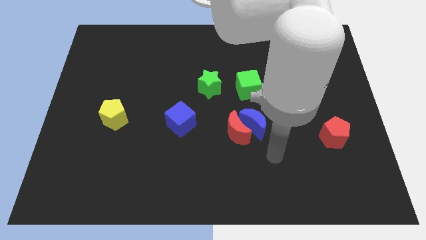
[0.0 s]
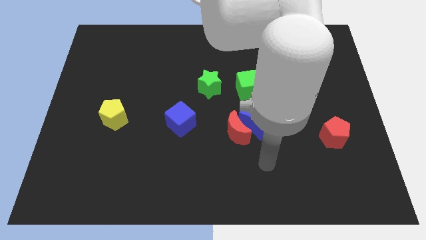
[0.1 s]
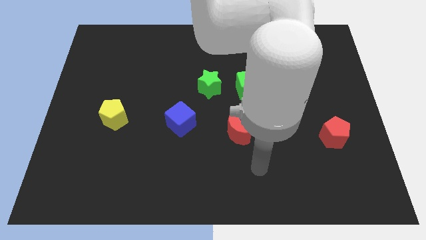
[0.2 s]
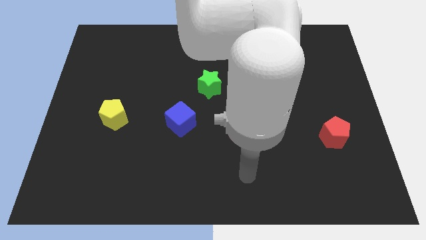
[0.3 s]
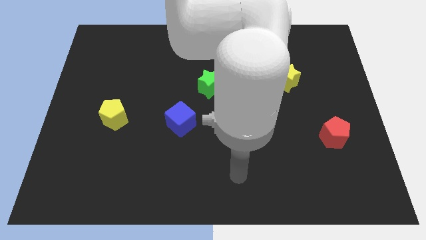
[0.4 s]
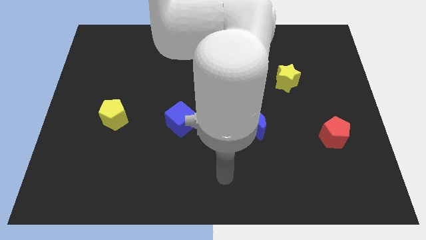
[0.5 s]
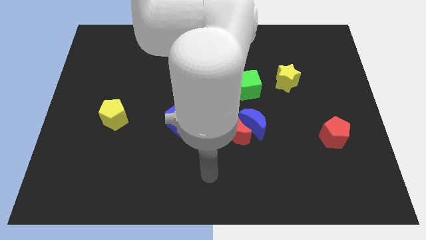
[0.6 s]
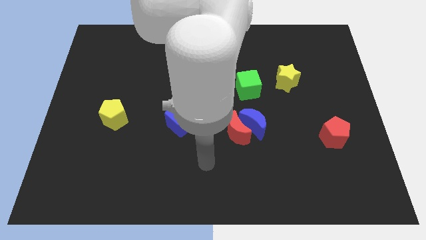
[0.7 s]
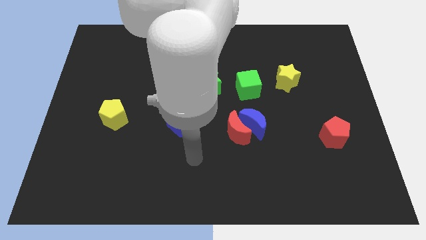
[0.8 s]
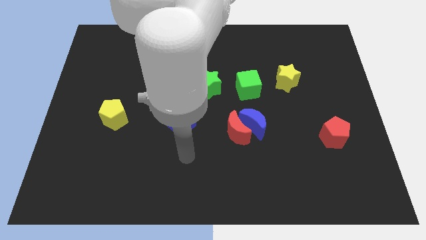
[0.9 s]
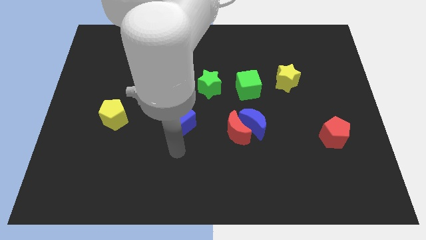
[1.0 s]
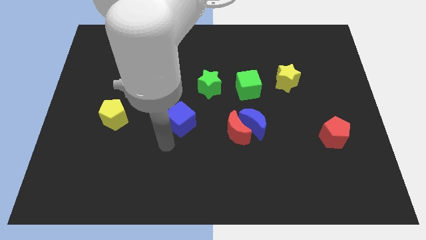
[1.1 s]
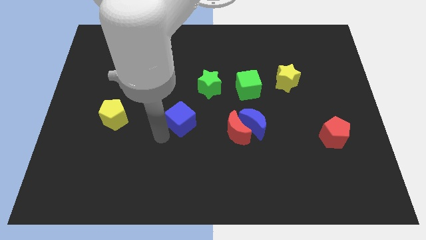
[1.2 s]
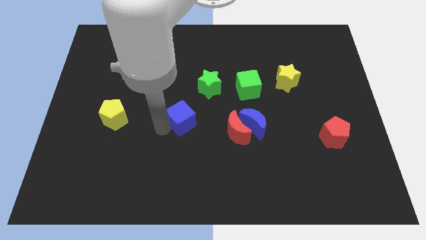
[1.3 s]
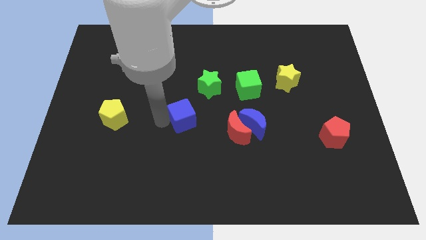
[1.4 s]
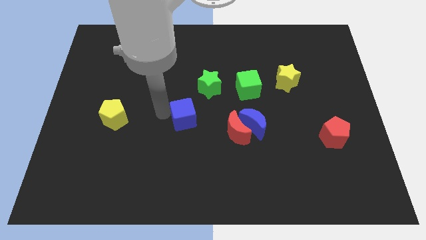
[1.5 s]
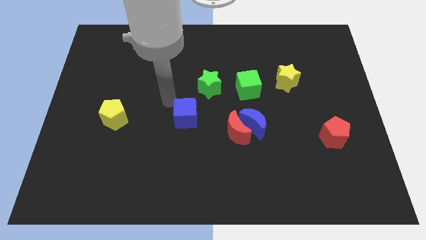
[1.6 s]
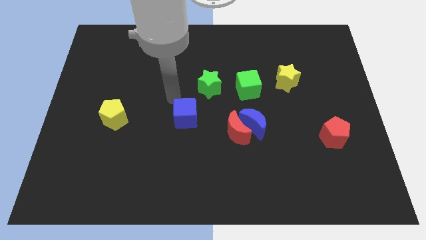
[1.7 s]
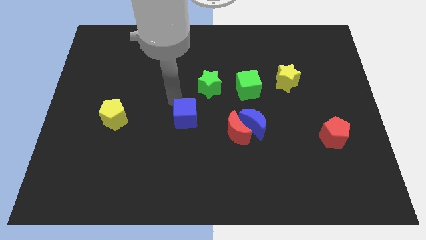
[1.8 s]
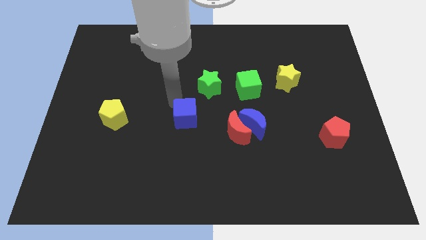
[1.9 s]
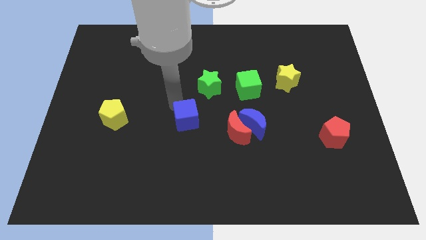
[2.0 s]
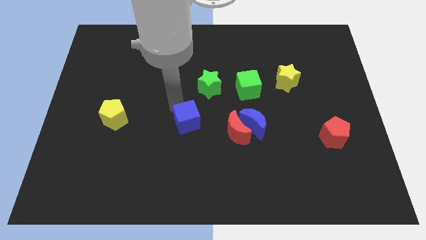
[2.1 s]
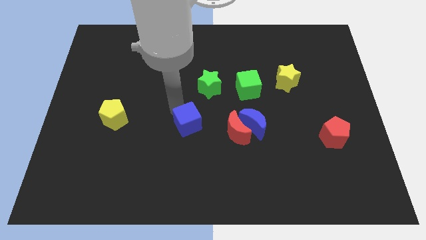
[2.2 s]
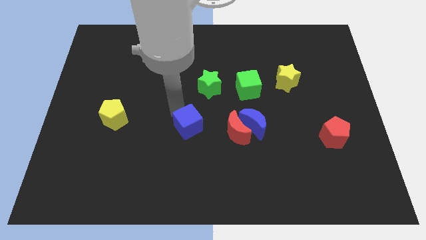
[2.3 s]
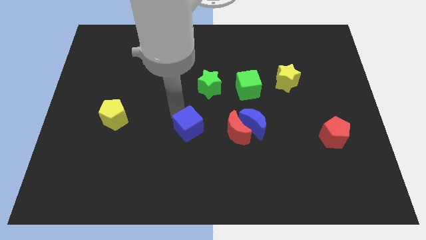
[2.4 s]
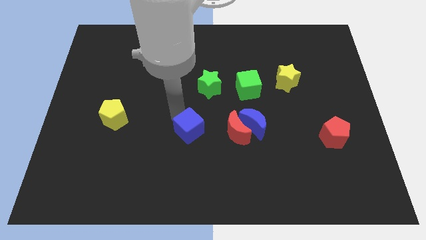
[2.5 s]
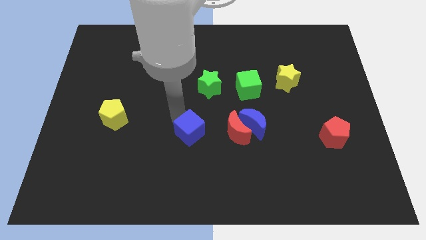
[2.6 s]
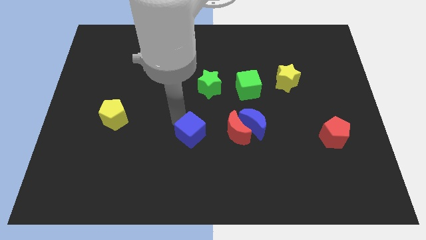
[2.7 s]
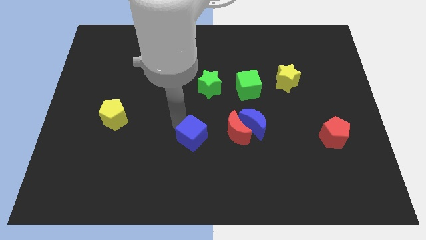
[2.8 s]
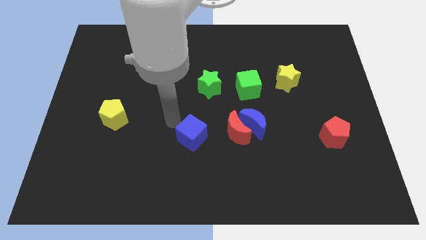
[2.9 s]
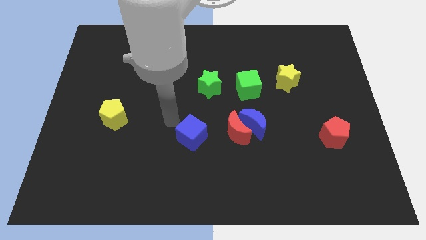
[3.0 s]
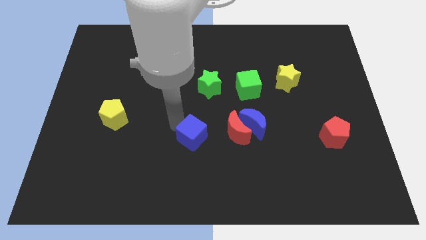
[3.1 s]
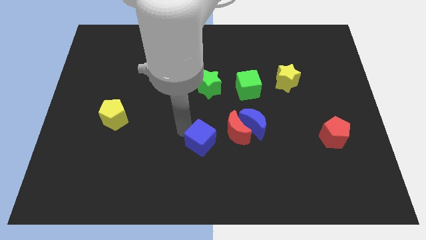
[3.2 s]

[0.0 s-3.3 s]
move the blue cube a bit downwards and right

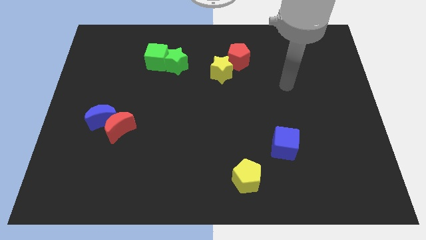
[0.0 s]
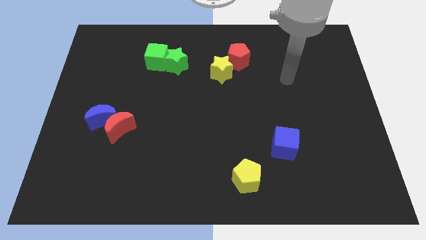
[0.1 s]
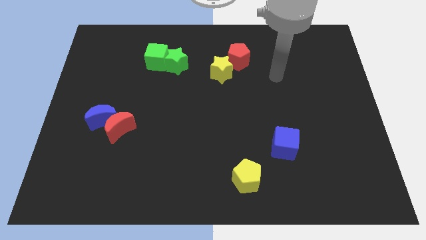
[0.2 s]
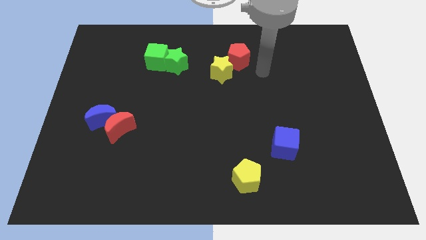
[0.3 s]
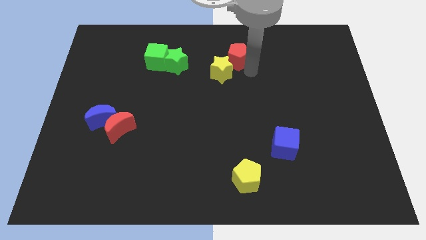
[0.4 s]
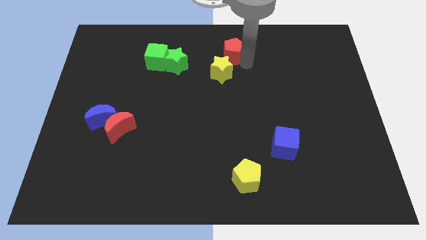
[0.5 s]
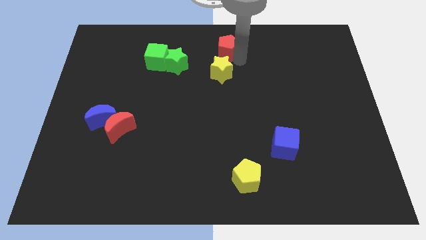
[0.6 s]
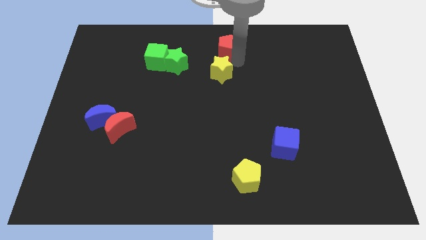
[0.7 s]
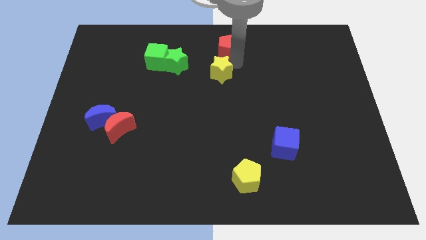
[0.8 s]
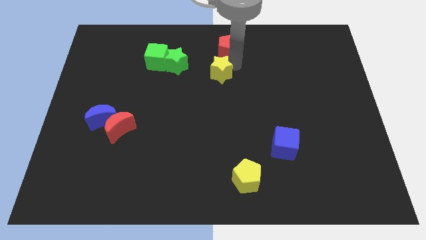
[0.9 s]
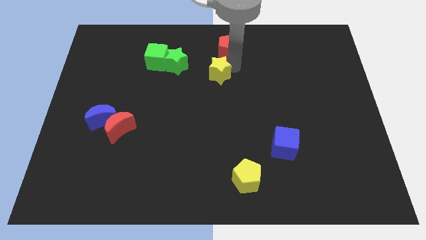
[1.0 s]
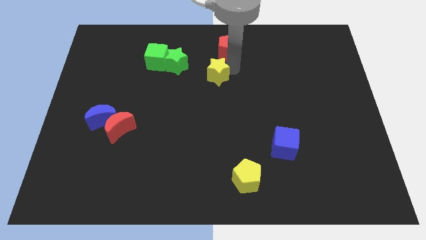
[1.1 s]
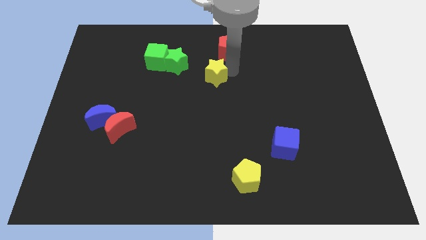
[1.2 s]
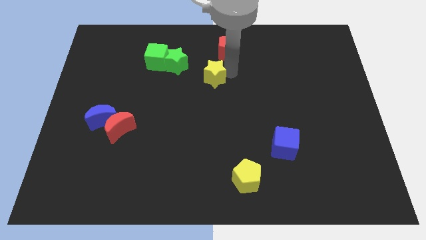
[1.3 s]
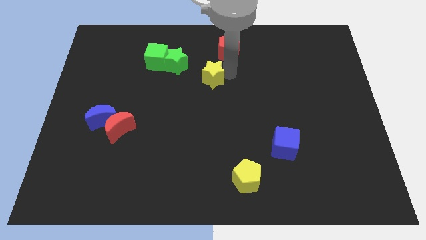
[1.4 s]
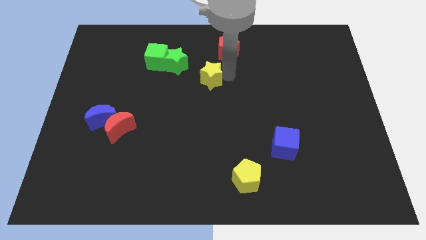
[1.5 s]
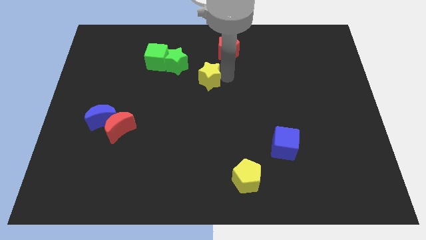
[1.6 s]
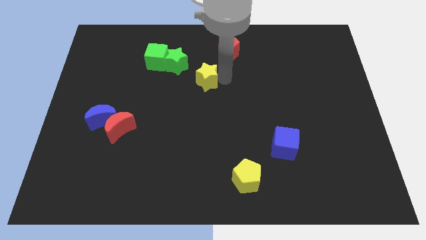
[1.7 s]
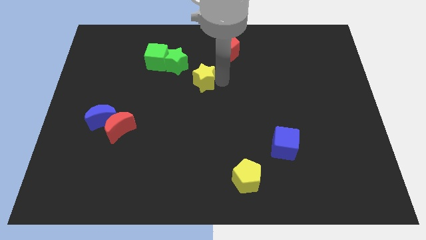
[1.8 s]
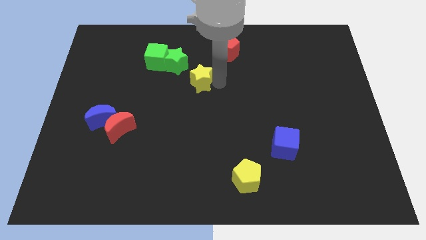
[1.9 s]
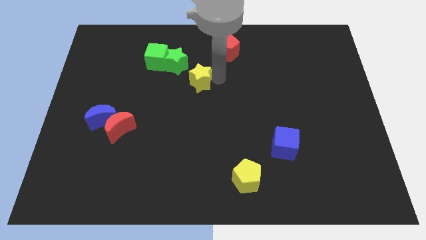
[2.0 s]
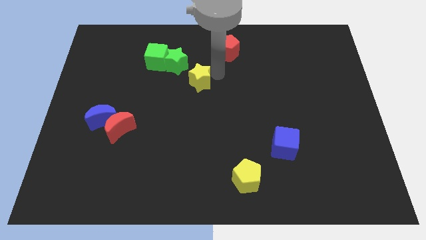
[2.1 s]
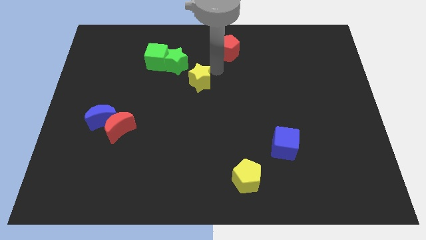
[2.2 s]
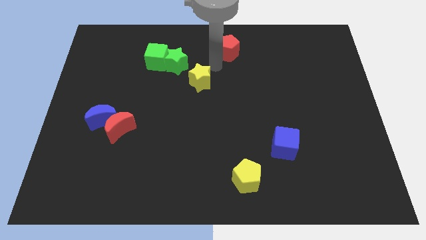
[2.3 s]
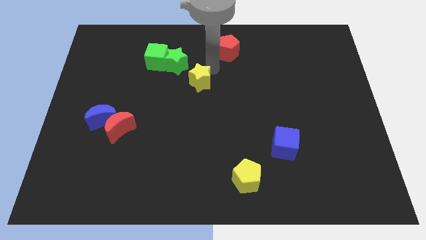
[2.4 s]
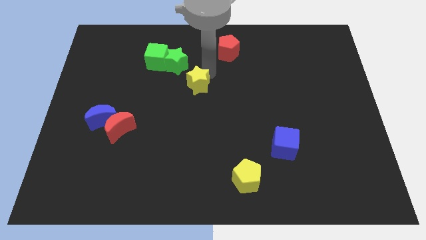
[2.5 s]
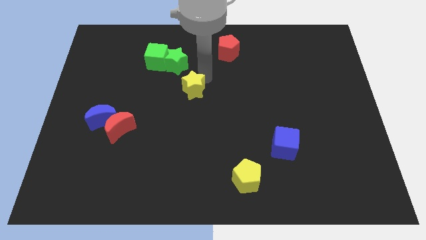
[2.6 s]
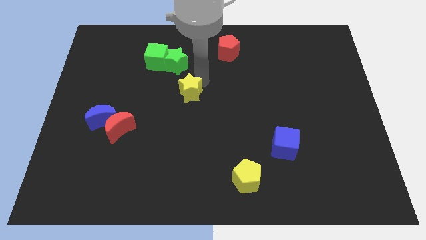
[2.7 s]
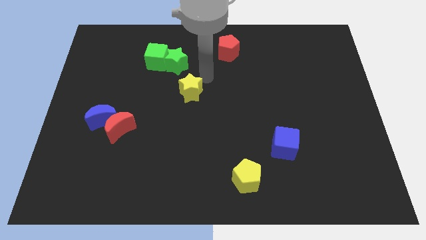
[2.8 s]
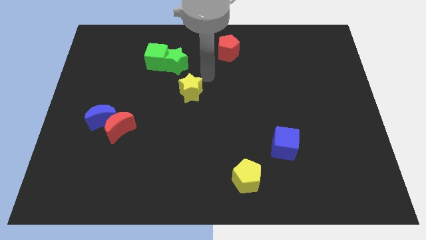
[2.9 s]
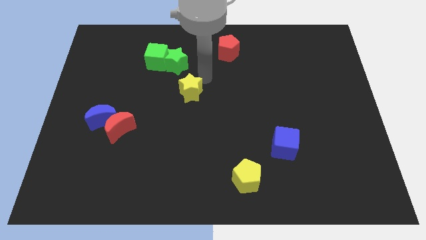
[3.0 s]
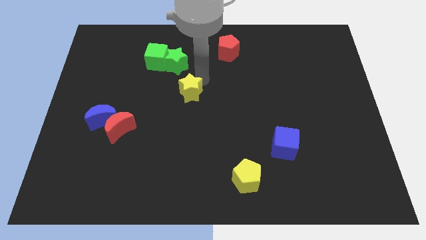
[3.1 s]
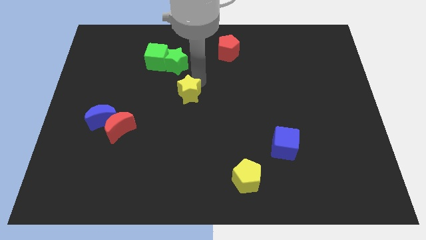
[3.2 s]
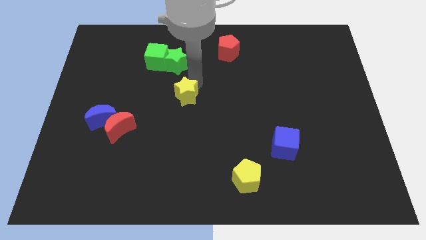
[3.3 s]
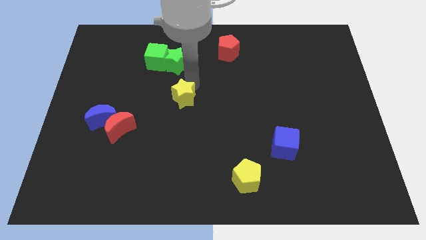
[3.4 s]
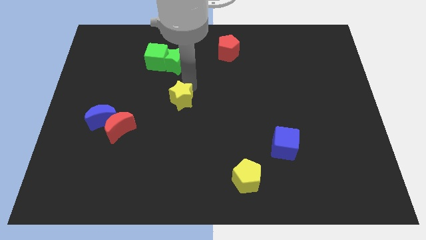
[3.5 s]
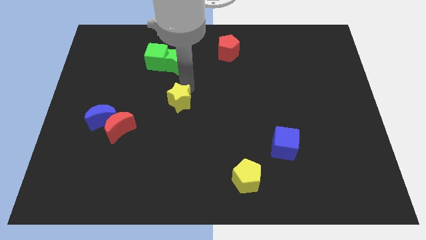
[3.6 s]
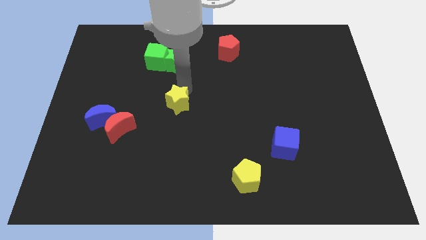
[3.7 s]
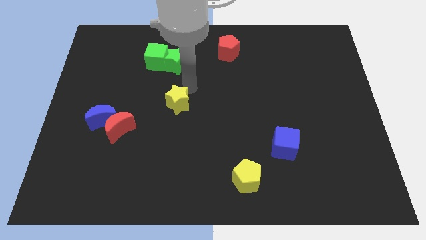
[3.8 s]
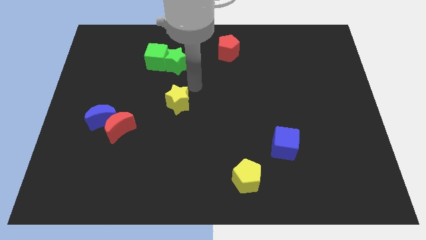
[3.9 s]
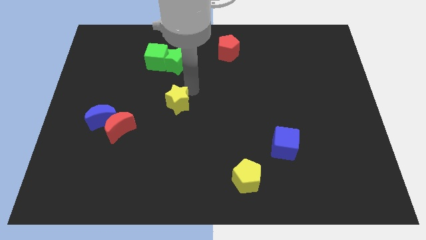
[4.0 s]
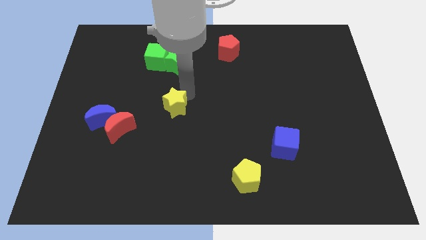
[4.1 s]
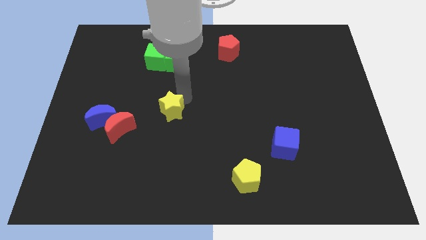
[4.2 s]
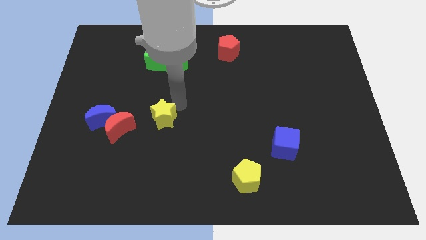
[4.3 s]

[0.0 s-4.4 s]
push the yellow star downwards and to the left diagonally
